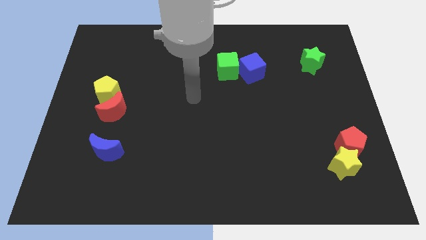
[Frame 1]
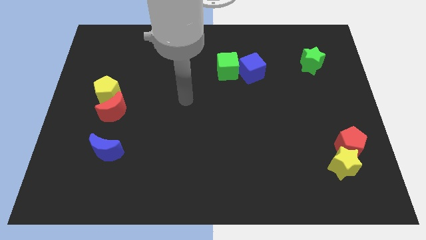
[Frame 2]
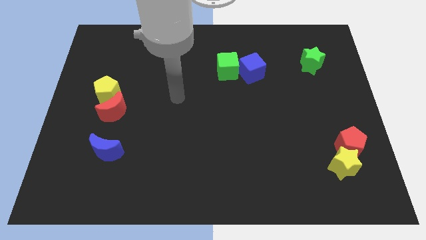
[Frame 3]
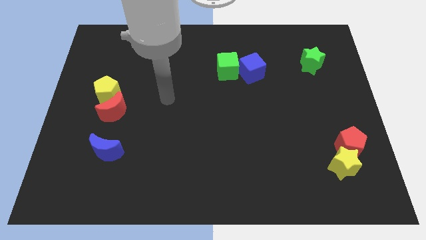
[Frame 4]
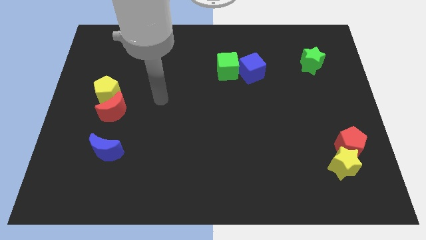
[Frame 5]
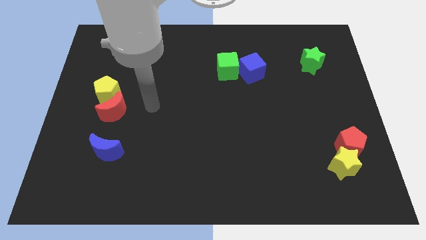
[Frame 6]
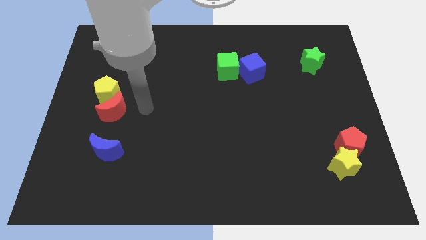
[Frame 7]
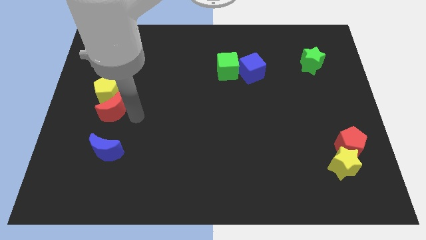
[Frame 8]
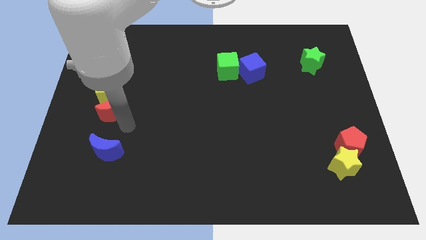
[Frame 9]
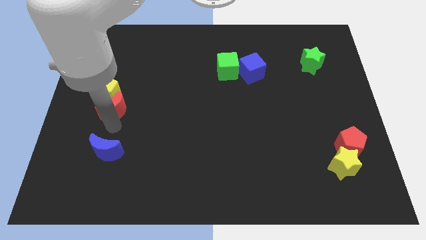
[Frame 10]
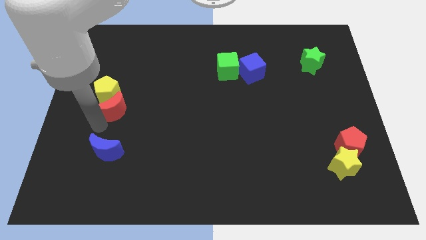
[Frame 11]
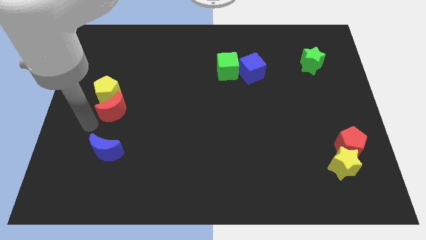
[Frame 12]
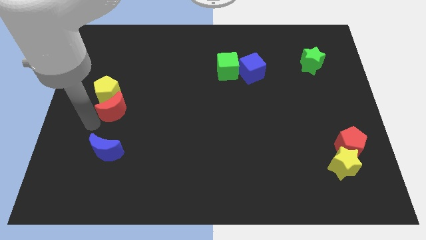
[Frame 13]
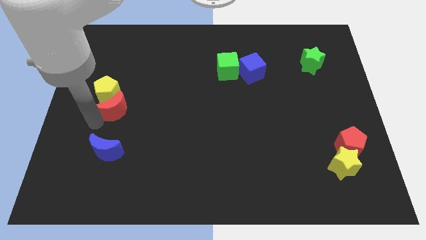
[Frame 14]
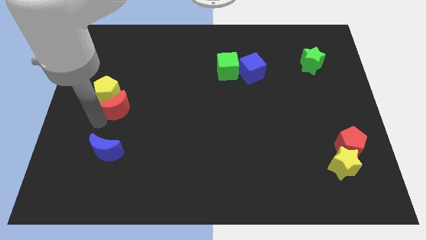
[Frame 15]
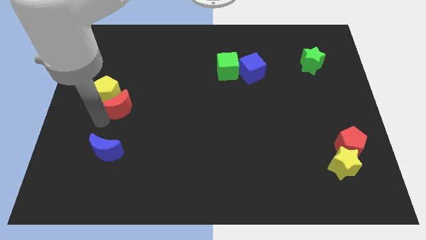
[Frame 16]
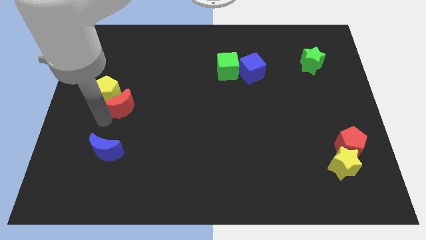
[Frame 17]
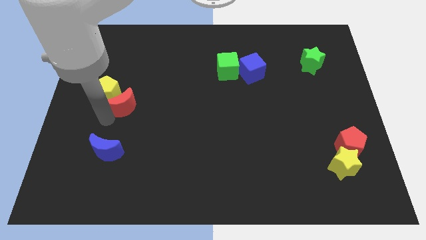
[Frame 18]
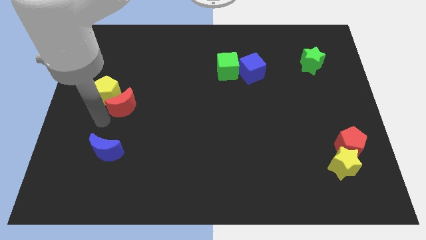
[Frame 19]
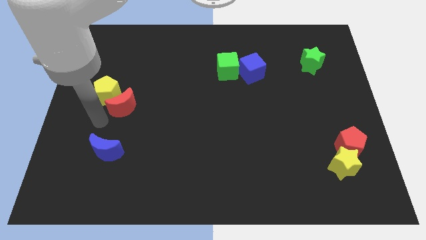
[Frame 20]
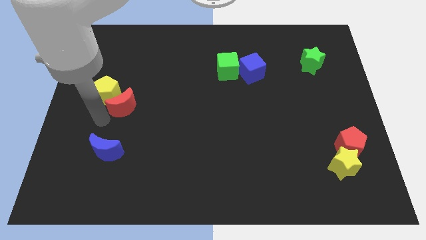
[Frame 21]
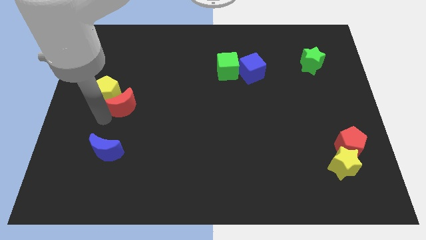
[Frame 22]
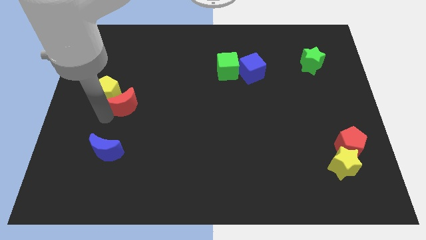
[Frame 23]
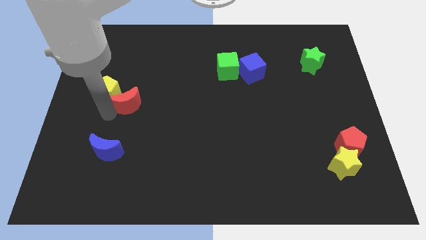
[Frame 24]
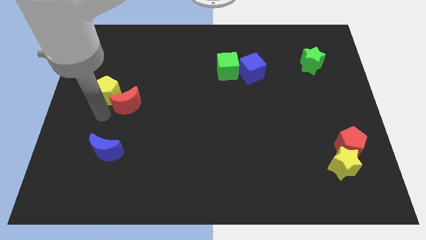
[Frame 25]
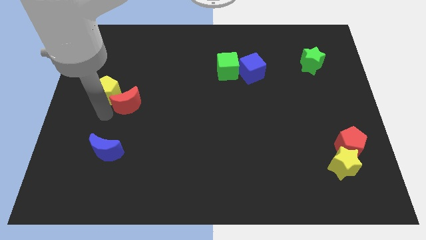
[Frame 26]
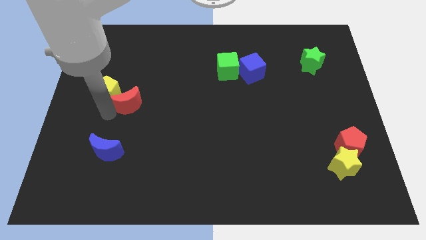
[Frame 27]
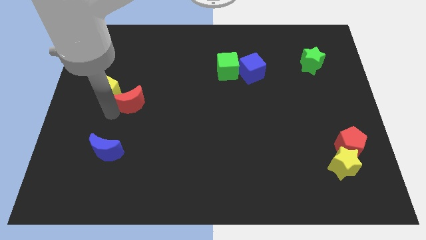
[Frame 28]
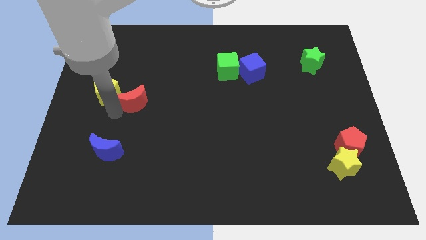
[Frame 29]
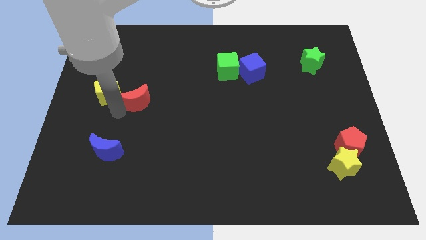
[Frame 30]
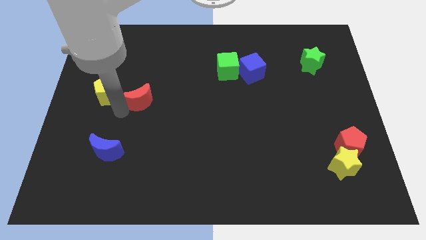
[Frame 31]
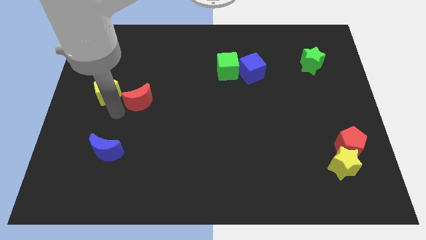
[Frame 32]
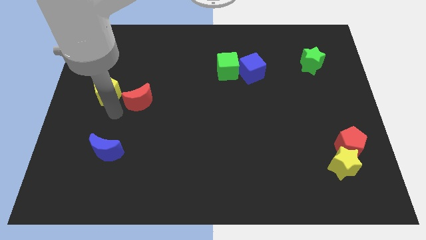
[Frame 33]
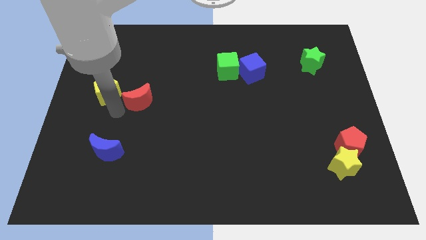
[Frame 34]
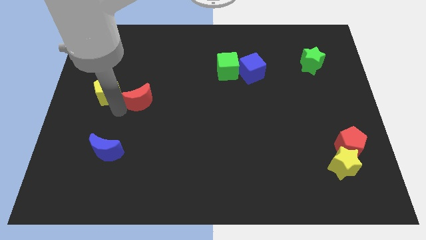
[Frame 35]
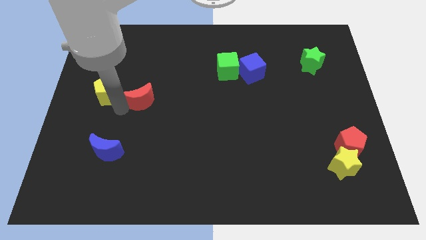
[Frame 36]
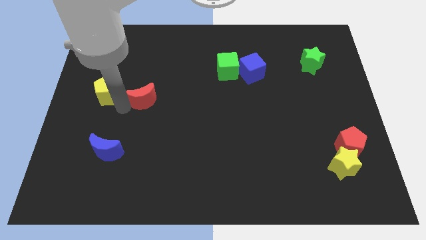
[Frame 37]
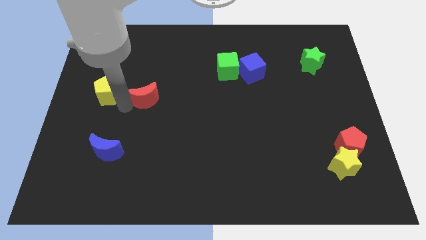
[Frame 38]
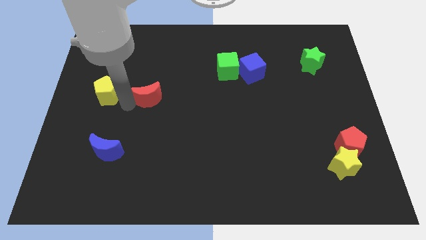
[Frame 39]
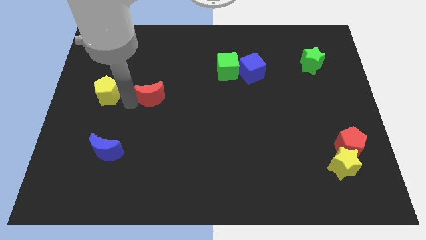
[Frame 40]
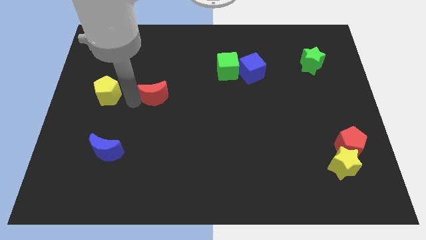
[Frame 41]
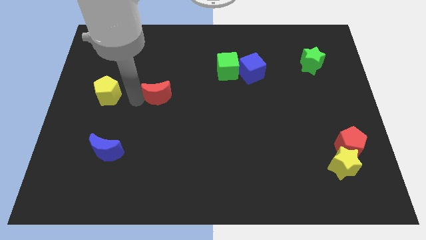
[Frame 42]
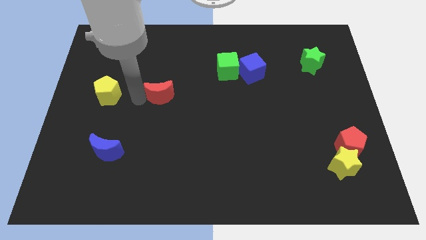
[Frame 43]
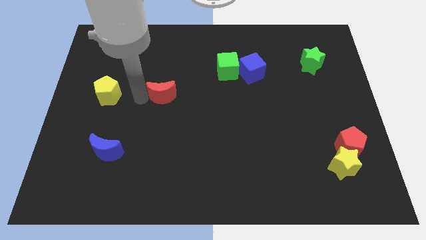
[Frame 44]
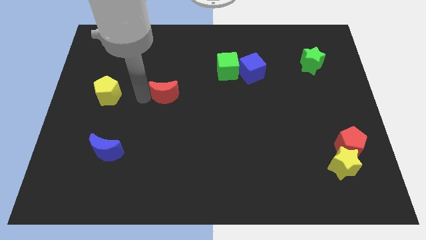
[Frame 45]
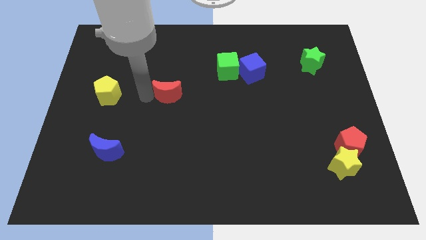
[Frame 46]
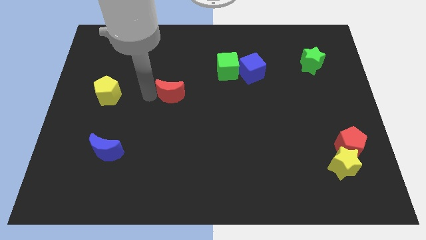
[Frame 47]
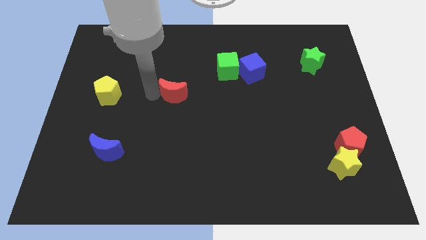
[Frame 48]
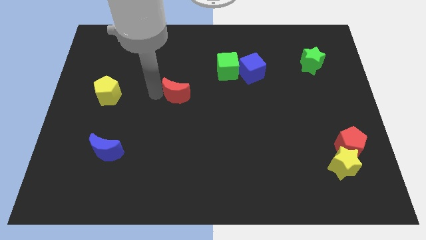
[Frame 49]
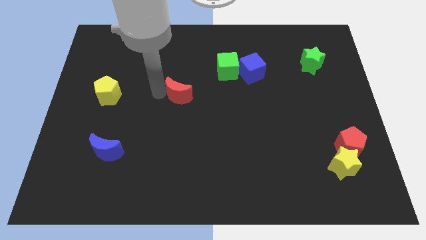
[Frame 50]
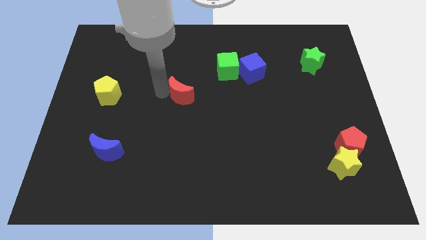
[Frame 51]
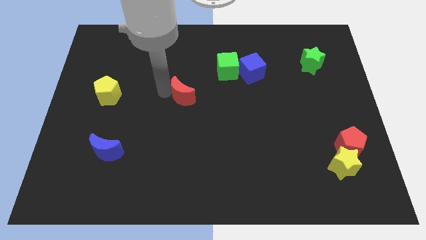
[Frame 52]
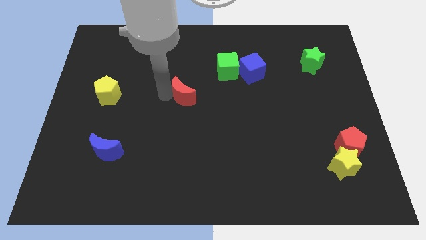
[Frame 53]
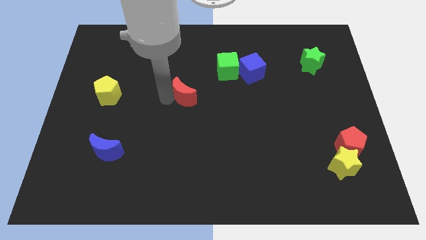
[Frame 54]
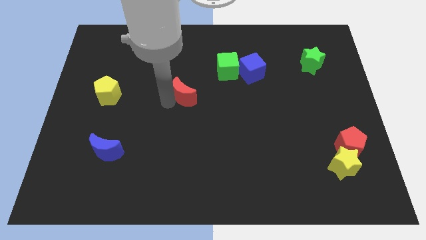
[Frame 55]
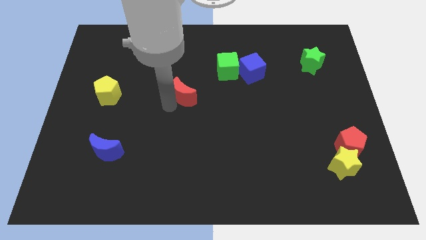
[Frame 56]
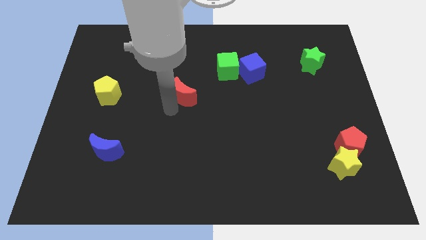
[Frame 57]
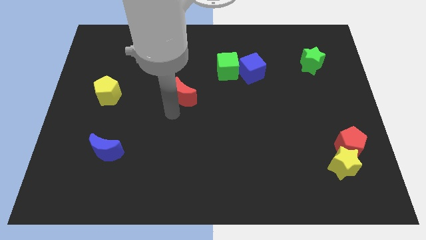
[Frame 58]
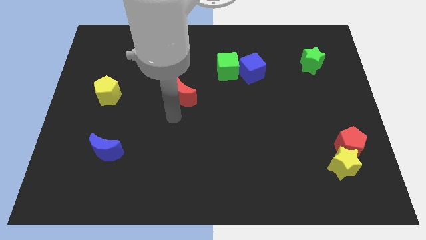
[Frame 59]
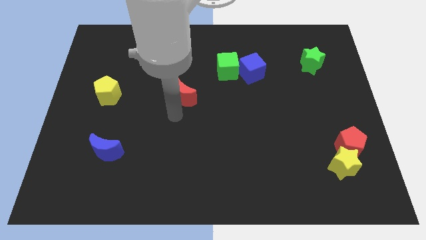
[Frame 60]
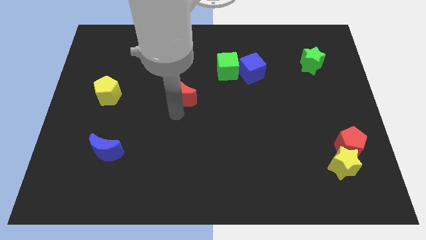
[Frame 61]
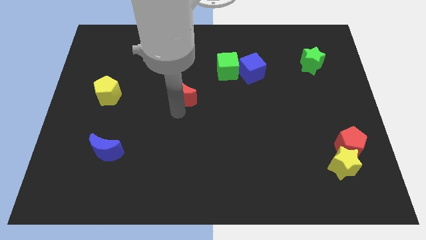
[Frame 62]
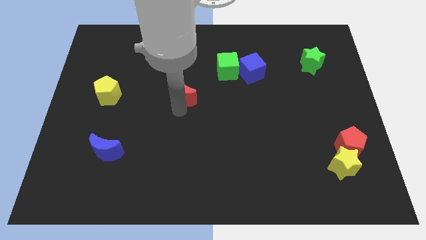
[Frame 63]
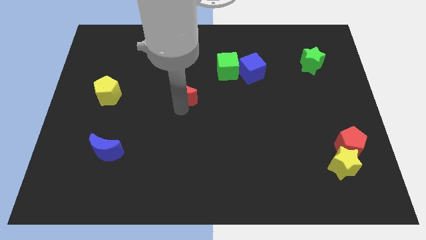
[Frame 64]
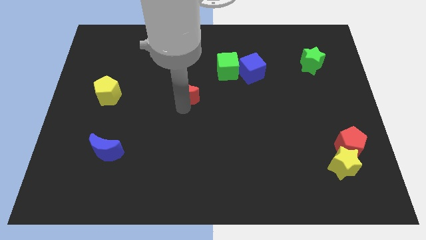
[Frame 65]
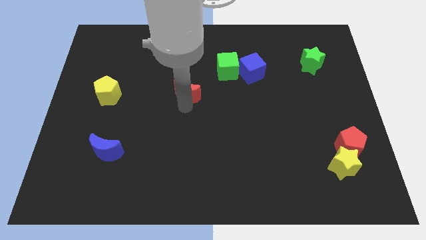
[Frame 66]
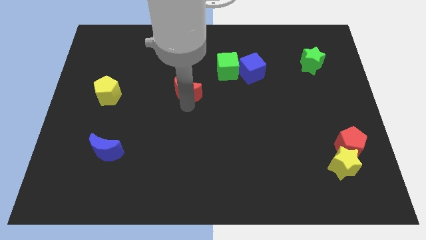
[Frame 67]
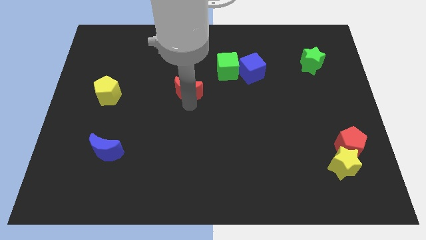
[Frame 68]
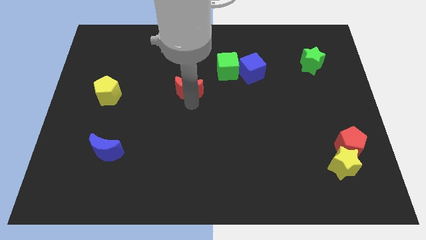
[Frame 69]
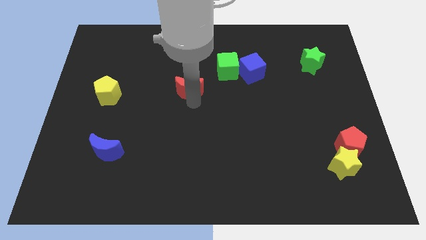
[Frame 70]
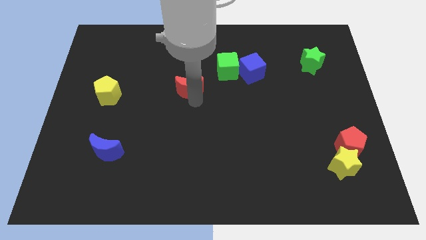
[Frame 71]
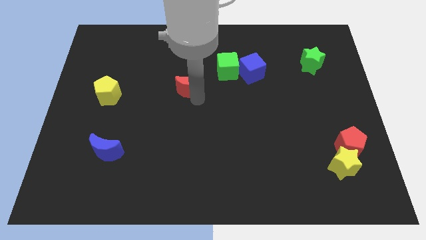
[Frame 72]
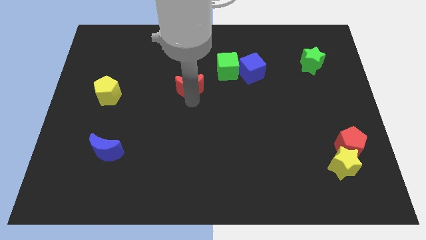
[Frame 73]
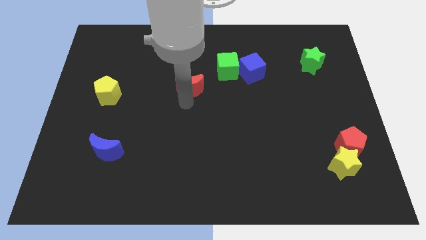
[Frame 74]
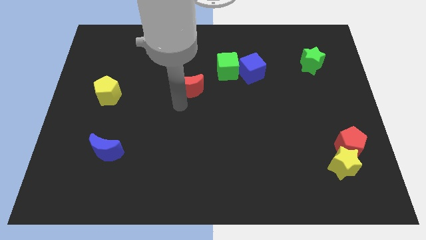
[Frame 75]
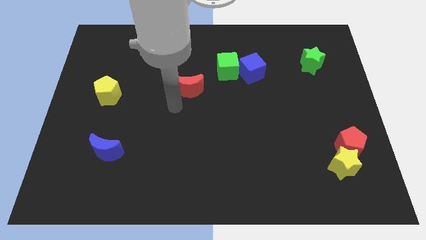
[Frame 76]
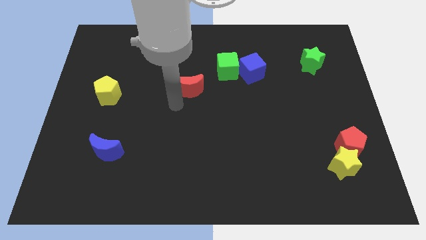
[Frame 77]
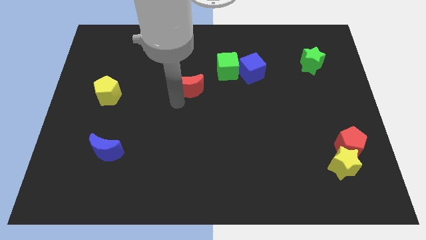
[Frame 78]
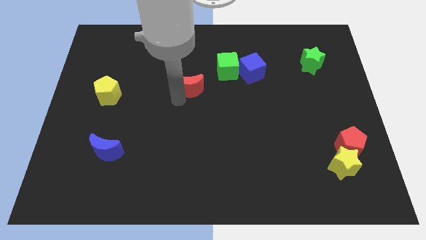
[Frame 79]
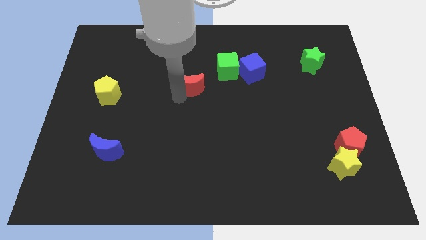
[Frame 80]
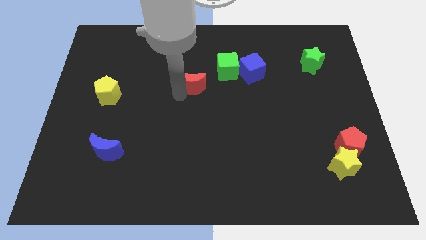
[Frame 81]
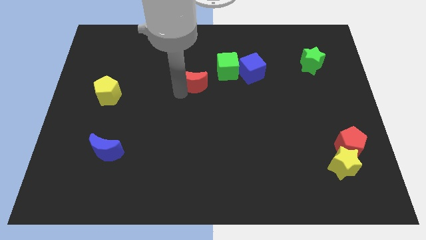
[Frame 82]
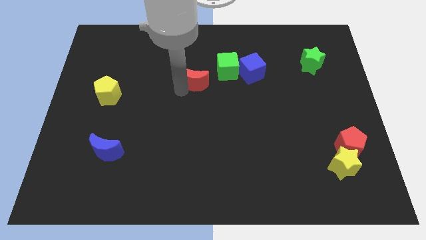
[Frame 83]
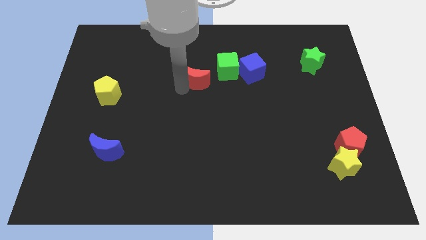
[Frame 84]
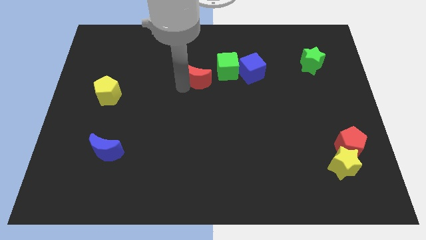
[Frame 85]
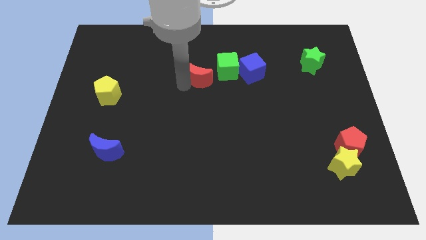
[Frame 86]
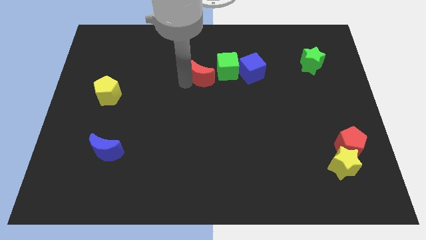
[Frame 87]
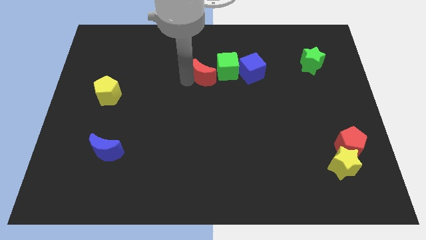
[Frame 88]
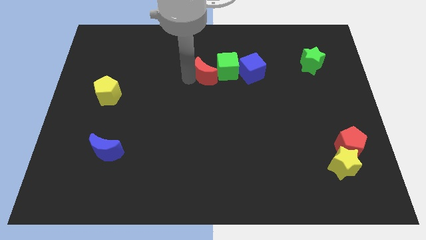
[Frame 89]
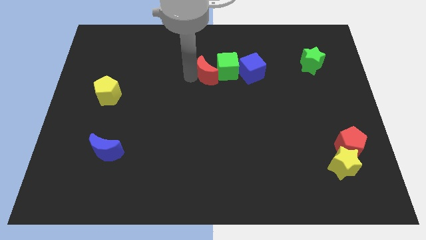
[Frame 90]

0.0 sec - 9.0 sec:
push the red moon to the green cube
